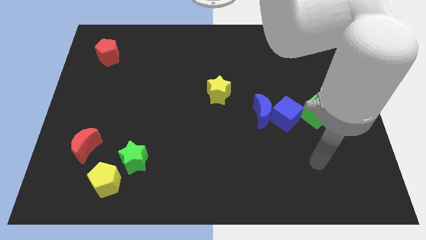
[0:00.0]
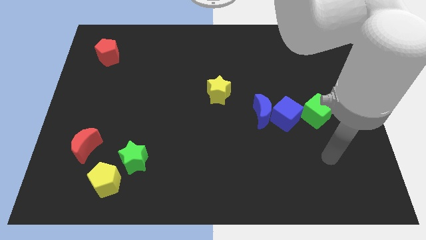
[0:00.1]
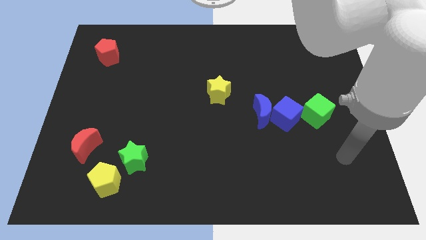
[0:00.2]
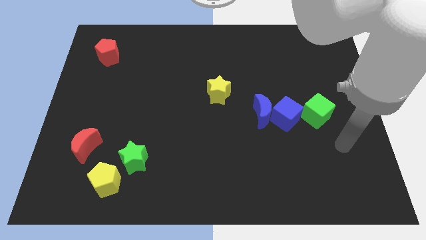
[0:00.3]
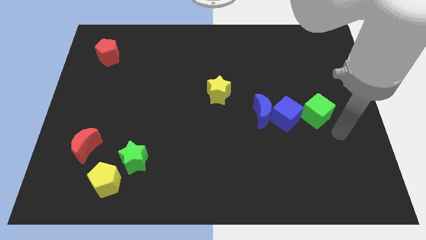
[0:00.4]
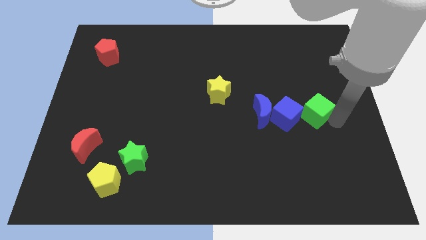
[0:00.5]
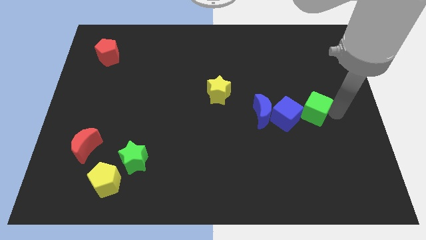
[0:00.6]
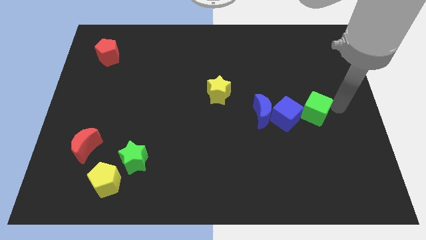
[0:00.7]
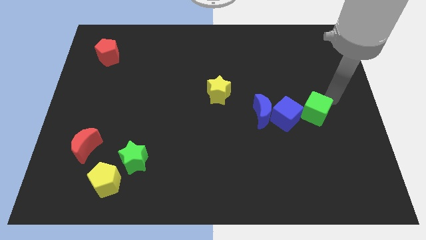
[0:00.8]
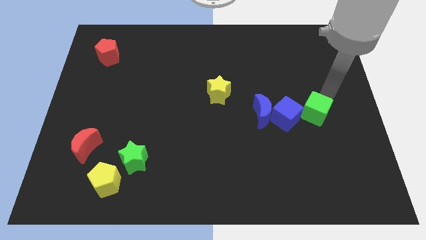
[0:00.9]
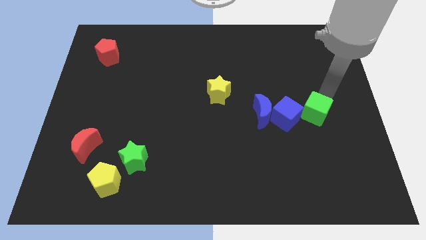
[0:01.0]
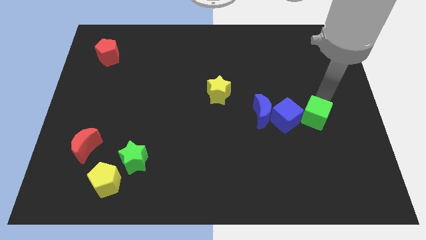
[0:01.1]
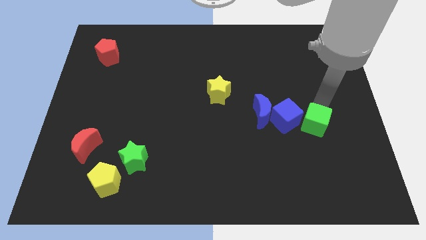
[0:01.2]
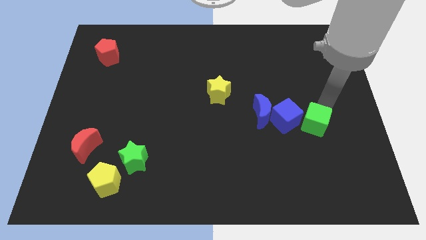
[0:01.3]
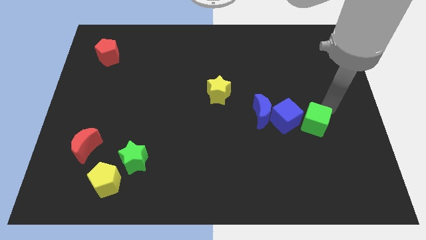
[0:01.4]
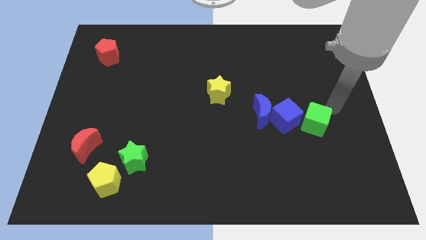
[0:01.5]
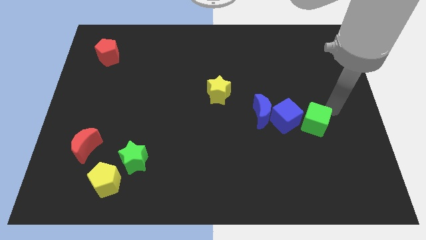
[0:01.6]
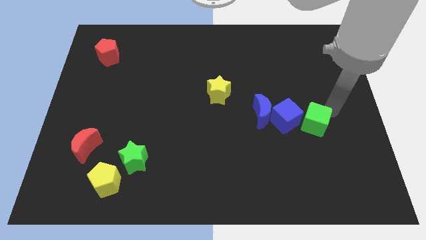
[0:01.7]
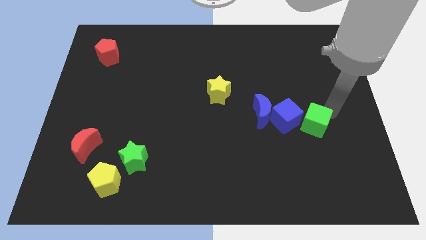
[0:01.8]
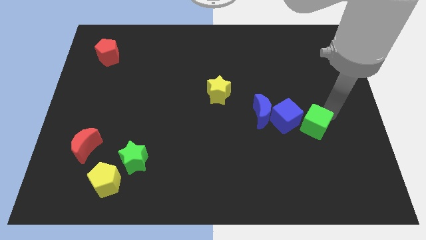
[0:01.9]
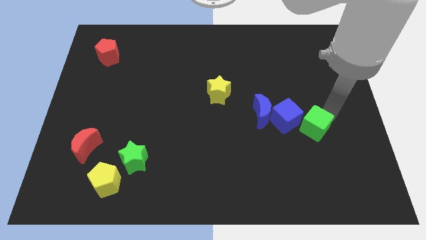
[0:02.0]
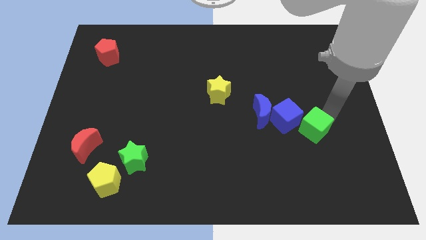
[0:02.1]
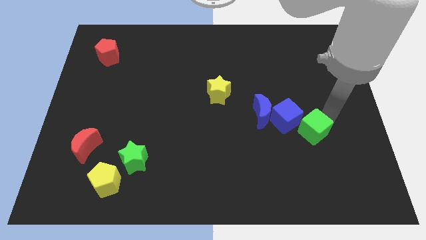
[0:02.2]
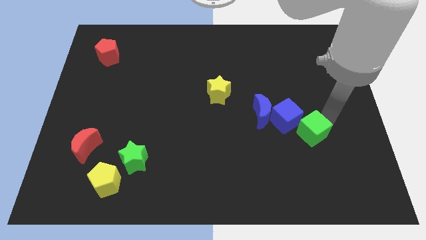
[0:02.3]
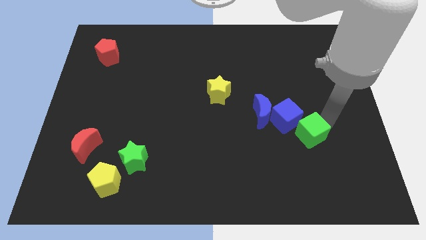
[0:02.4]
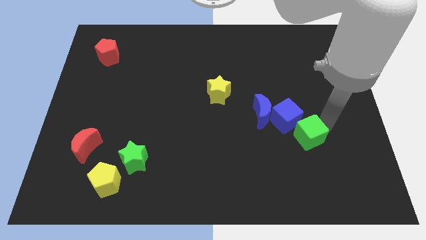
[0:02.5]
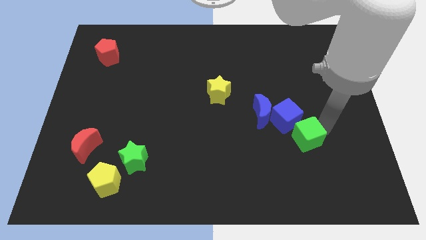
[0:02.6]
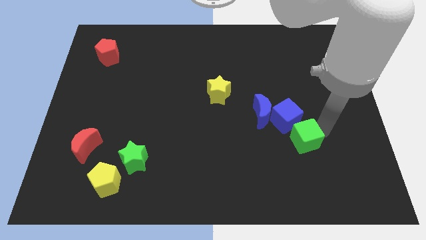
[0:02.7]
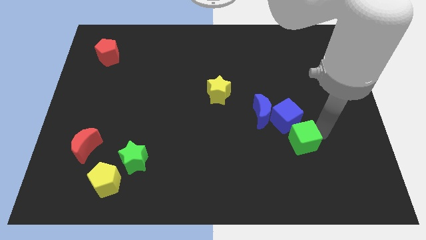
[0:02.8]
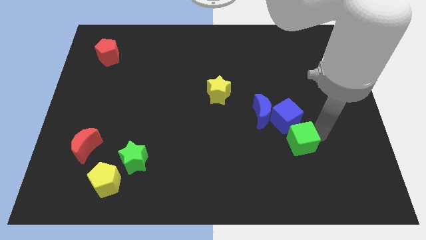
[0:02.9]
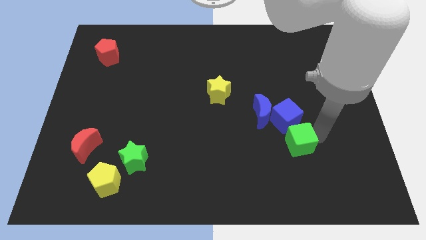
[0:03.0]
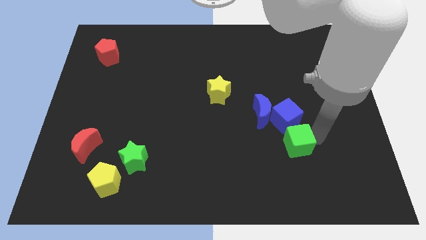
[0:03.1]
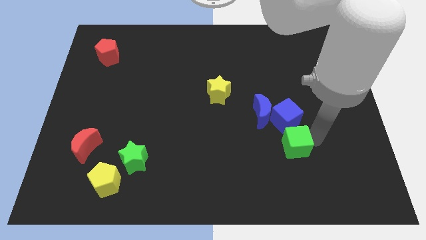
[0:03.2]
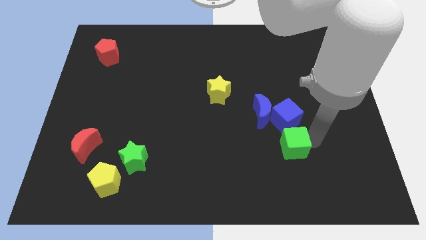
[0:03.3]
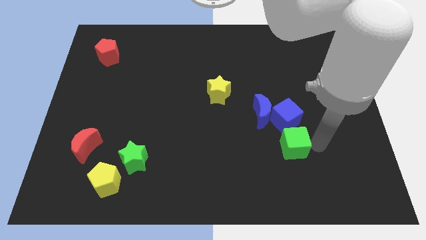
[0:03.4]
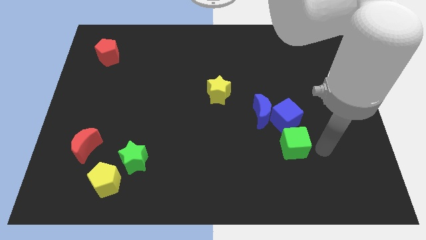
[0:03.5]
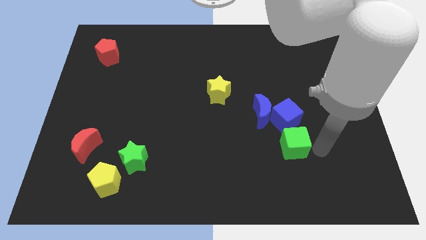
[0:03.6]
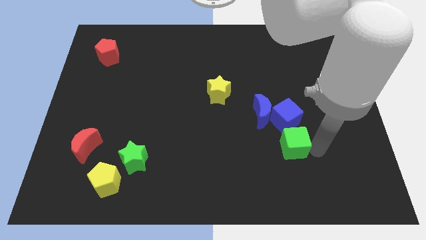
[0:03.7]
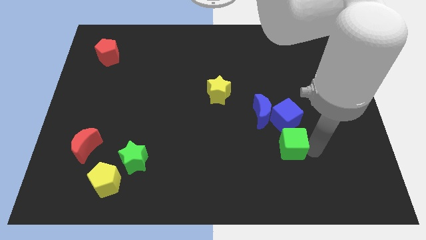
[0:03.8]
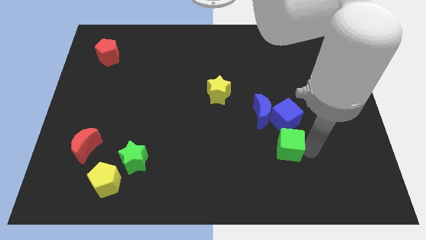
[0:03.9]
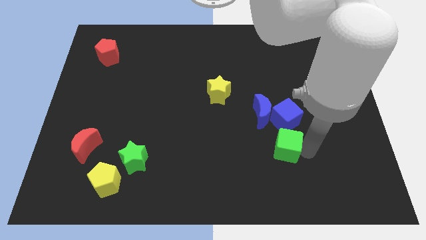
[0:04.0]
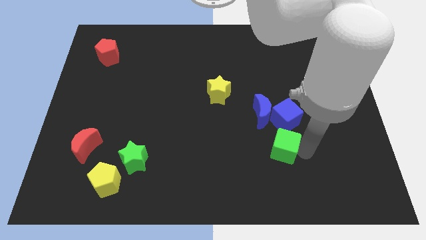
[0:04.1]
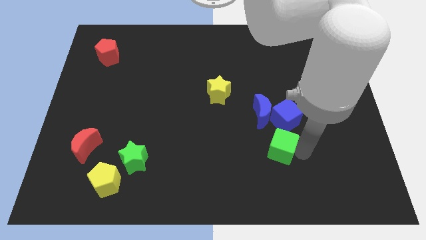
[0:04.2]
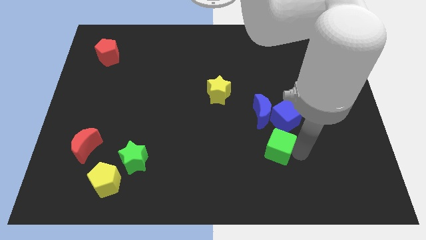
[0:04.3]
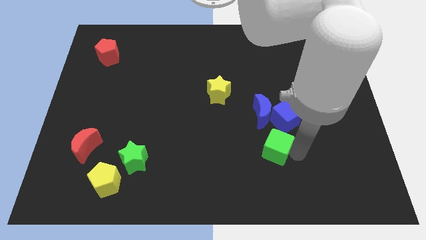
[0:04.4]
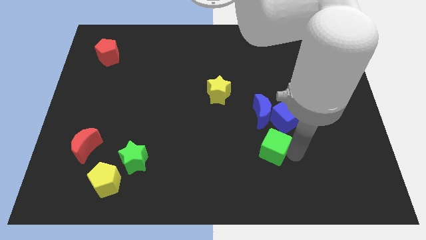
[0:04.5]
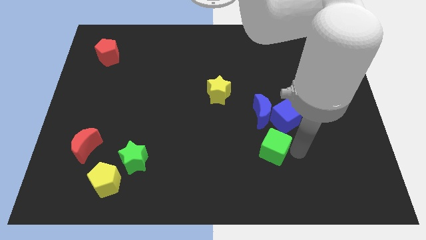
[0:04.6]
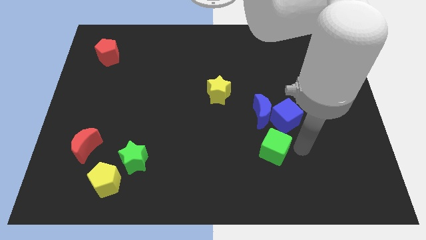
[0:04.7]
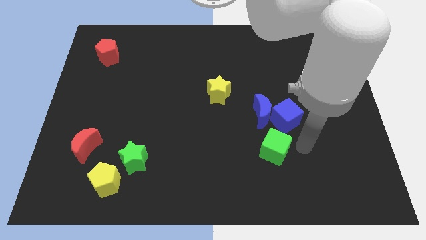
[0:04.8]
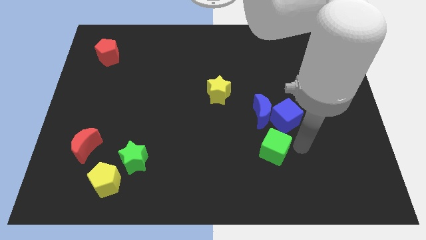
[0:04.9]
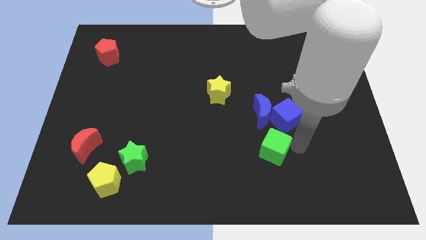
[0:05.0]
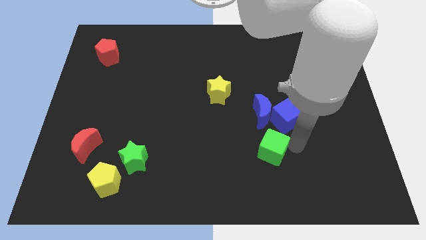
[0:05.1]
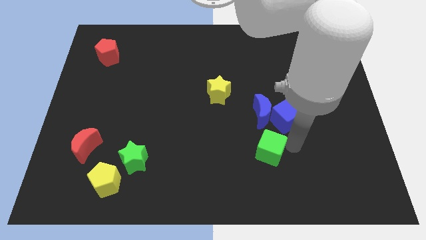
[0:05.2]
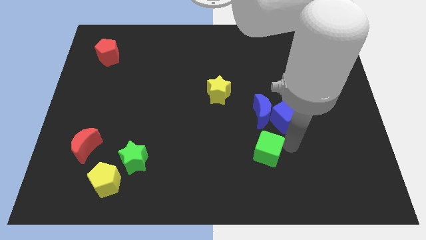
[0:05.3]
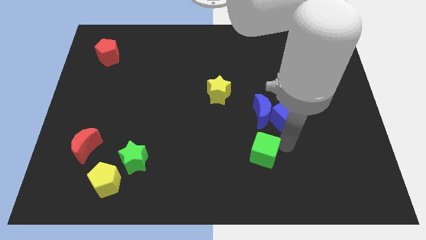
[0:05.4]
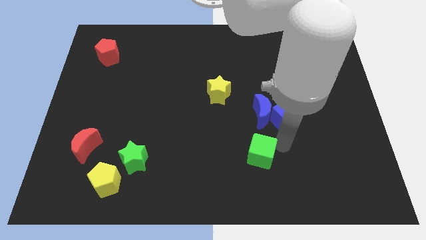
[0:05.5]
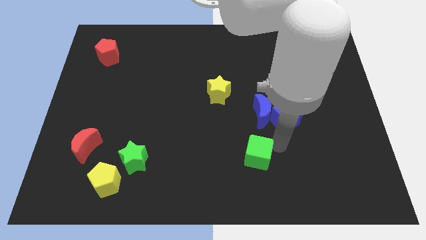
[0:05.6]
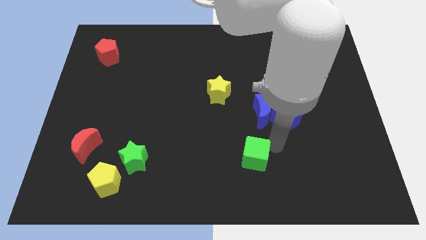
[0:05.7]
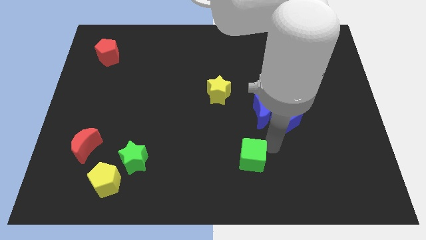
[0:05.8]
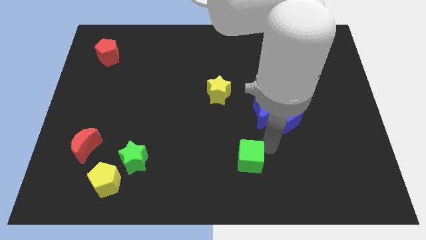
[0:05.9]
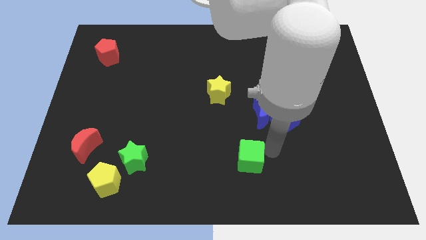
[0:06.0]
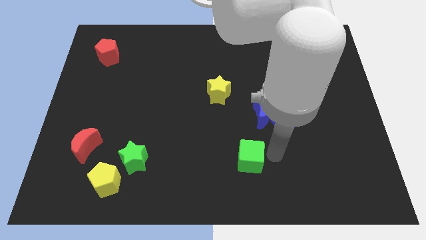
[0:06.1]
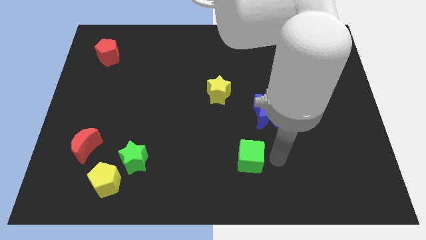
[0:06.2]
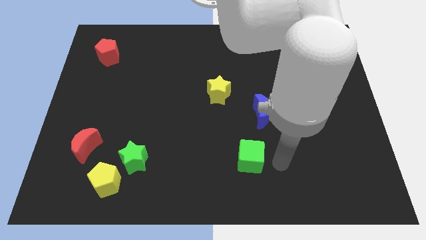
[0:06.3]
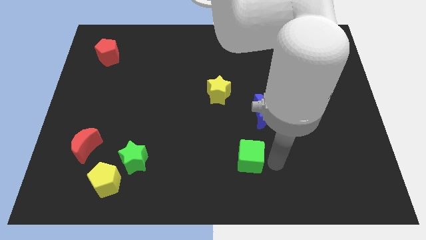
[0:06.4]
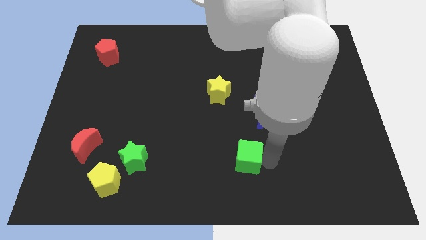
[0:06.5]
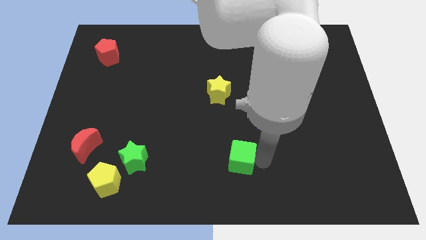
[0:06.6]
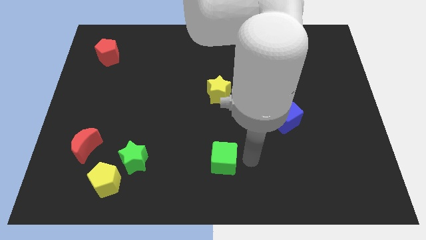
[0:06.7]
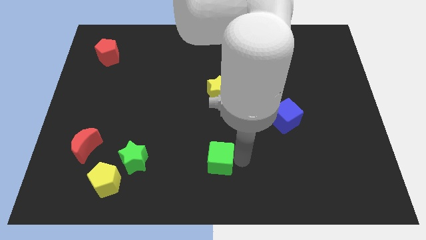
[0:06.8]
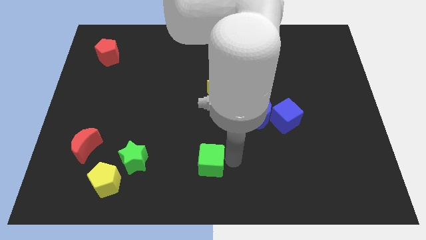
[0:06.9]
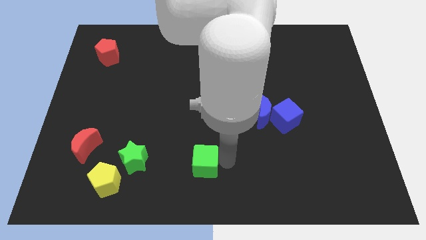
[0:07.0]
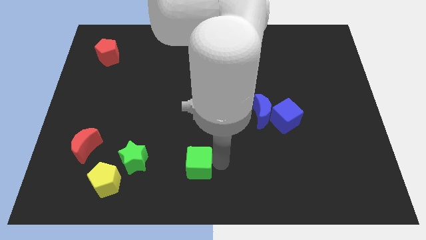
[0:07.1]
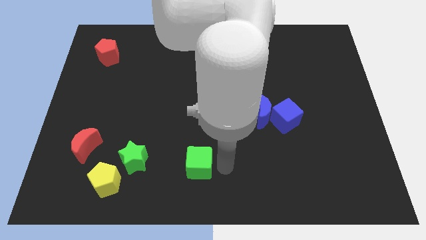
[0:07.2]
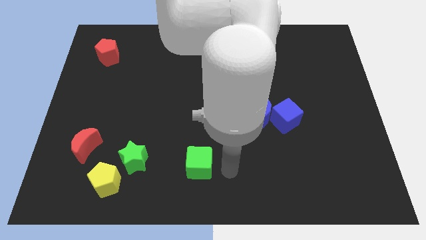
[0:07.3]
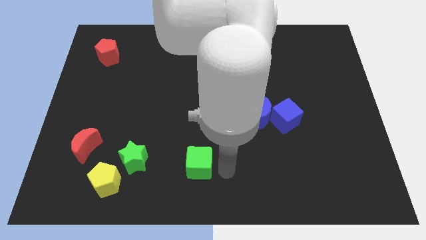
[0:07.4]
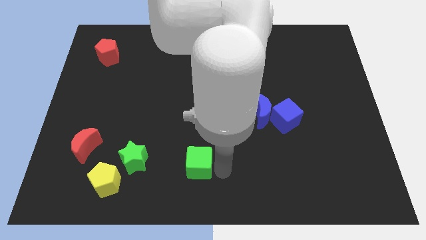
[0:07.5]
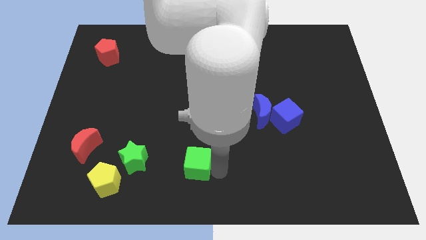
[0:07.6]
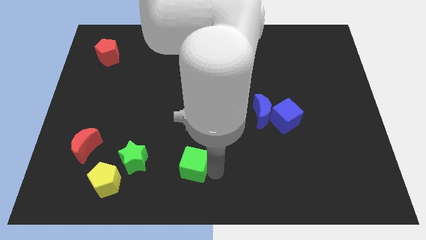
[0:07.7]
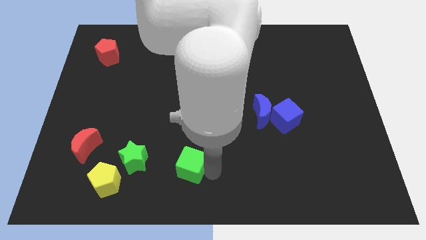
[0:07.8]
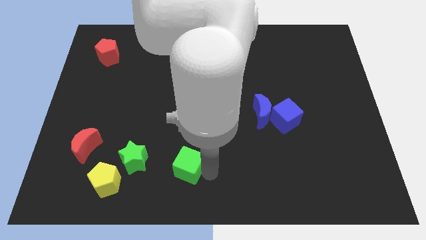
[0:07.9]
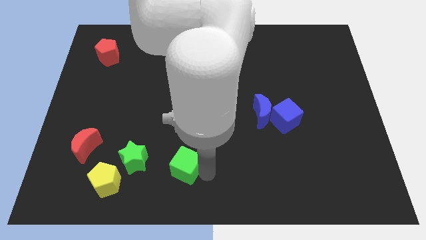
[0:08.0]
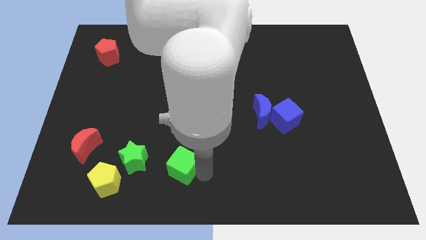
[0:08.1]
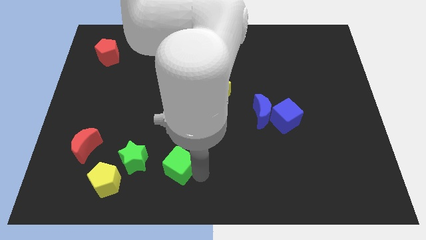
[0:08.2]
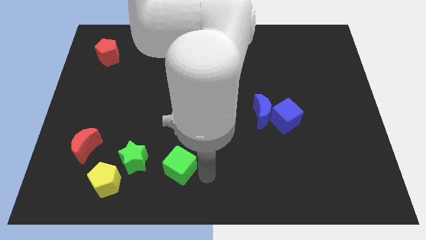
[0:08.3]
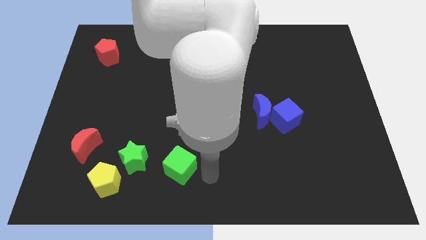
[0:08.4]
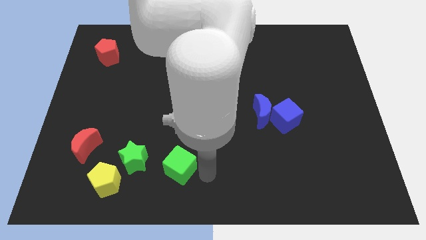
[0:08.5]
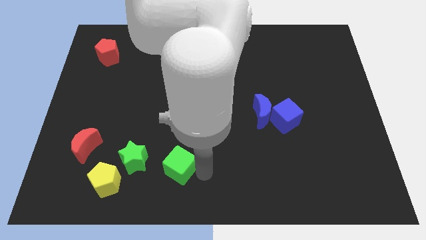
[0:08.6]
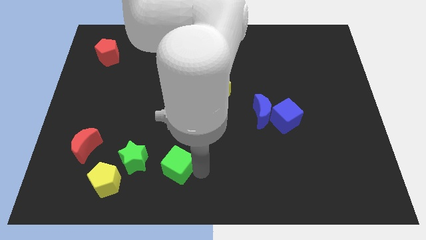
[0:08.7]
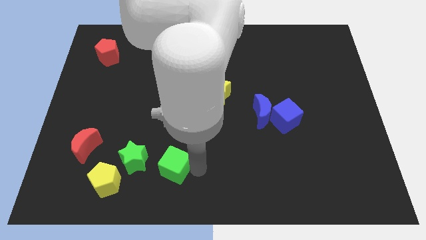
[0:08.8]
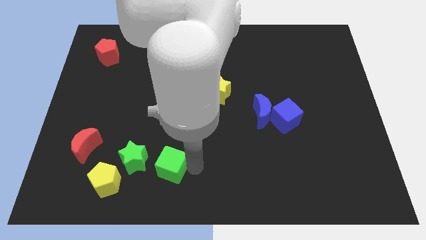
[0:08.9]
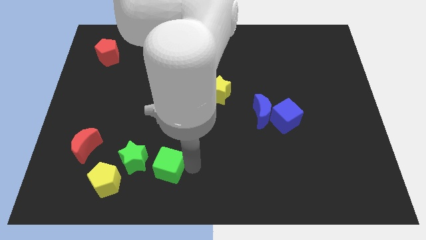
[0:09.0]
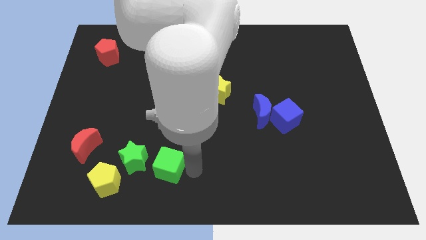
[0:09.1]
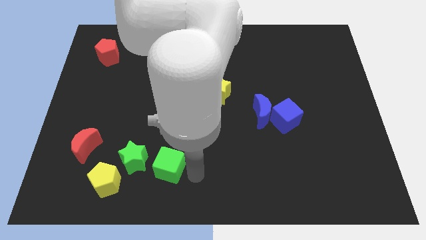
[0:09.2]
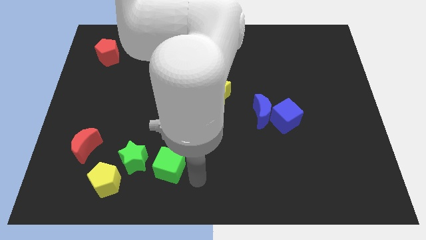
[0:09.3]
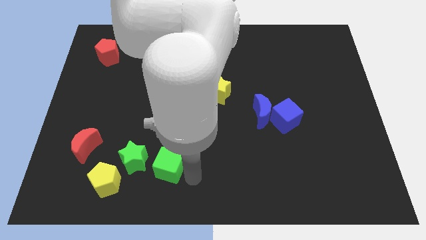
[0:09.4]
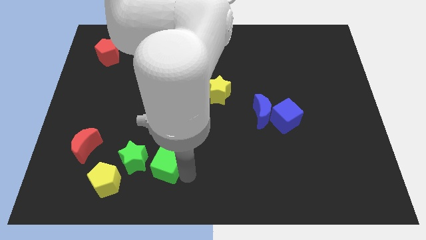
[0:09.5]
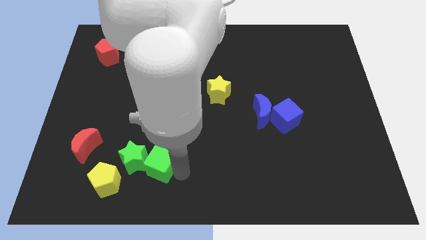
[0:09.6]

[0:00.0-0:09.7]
slide the green cube next to the green star
